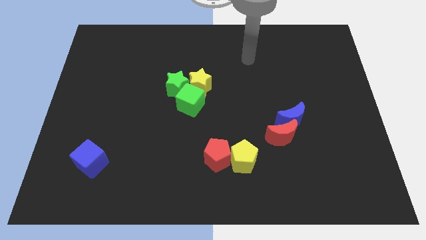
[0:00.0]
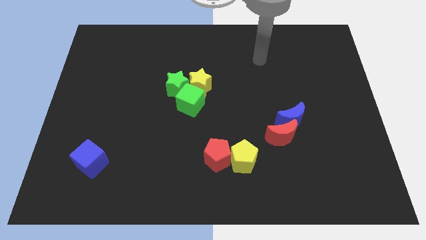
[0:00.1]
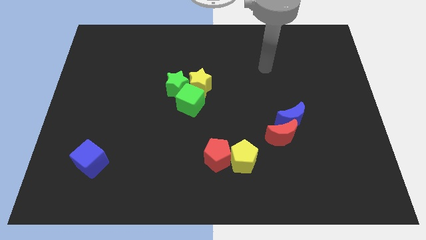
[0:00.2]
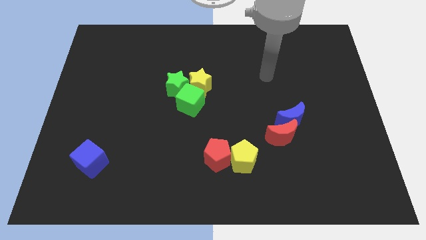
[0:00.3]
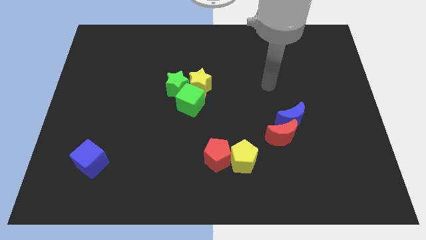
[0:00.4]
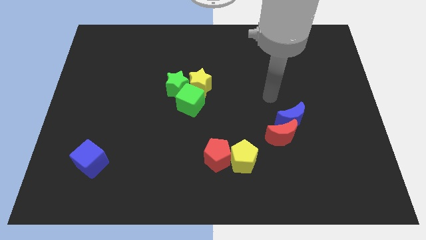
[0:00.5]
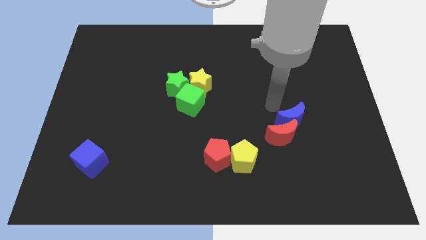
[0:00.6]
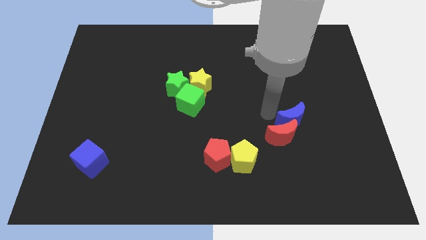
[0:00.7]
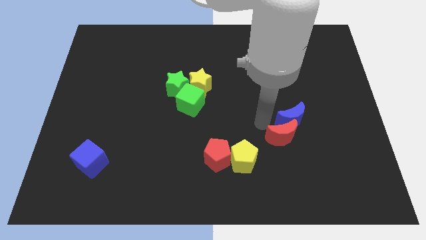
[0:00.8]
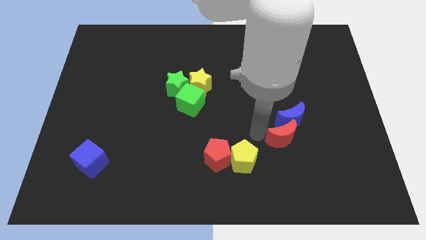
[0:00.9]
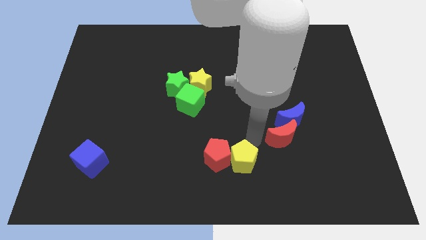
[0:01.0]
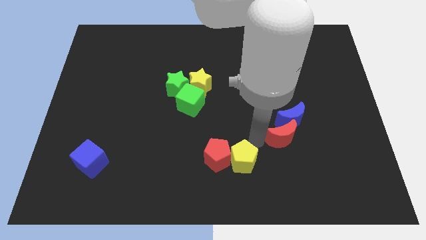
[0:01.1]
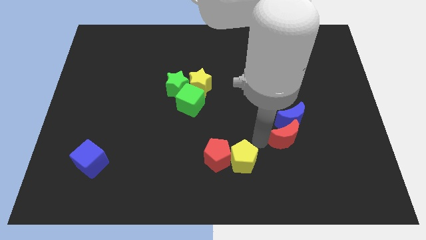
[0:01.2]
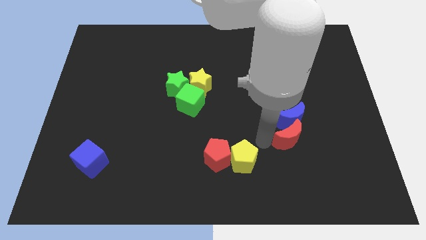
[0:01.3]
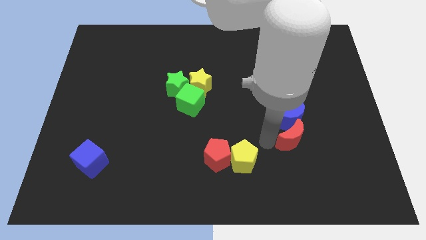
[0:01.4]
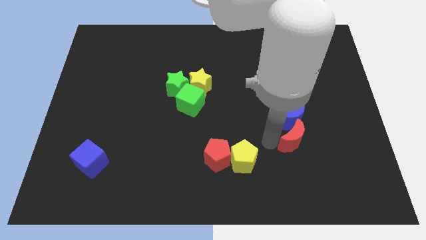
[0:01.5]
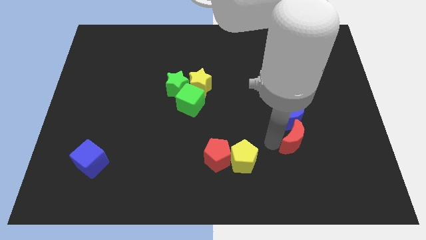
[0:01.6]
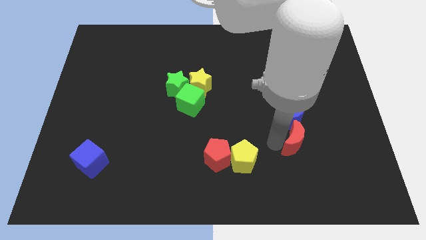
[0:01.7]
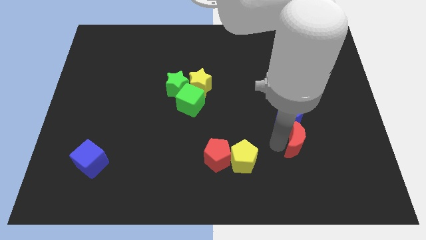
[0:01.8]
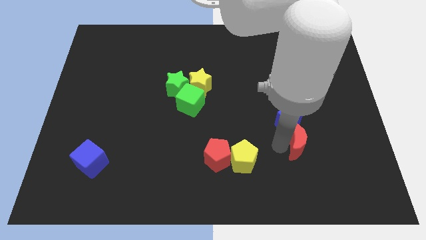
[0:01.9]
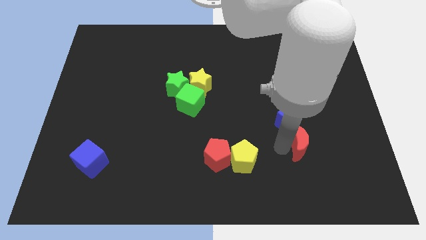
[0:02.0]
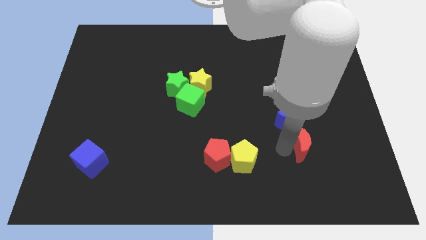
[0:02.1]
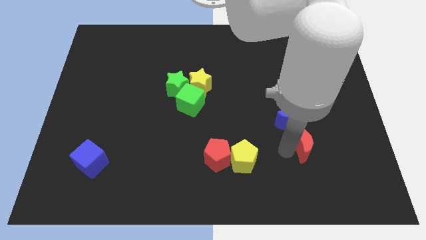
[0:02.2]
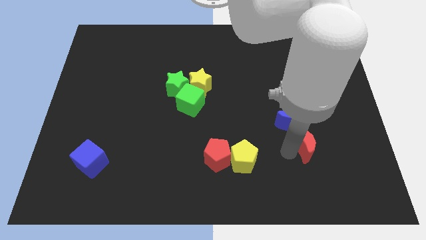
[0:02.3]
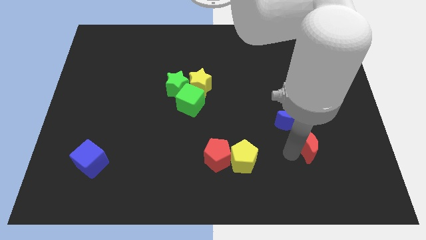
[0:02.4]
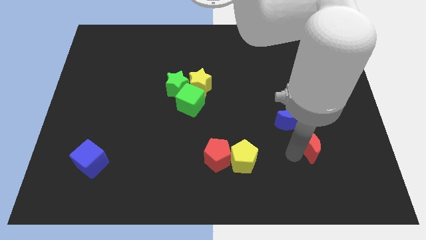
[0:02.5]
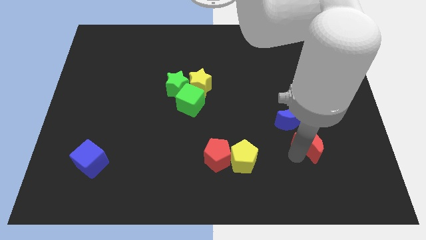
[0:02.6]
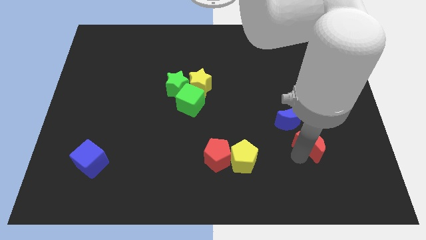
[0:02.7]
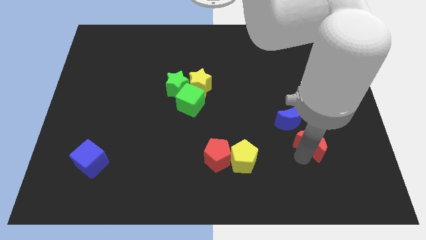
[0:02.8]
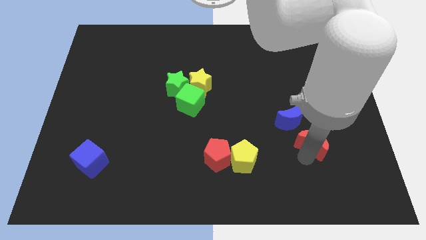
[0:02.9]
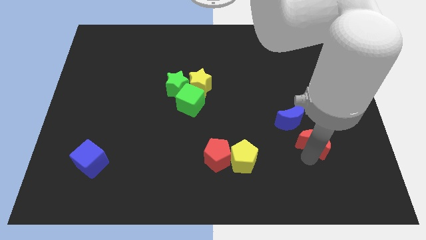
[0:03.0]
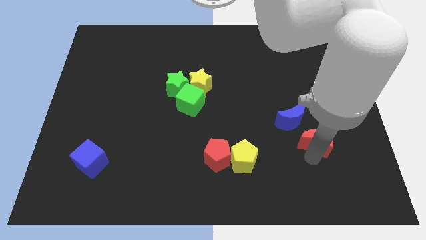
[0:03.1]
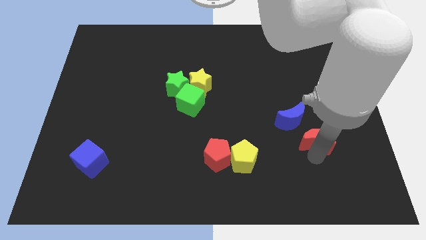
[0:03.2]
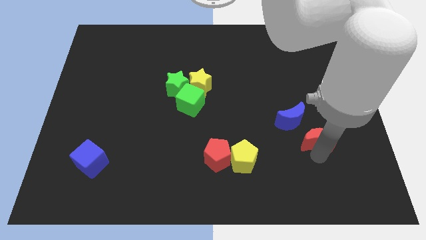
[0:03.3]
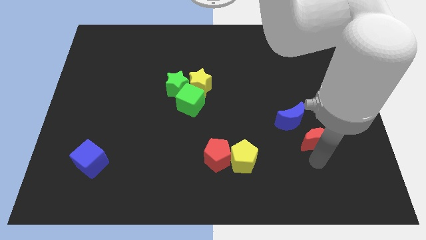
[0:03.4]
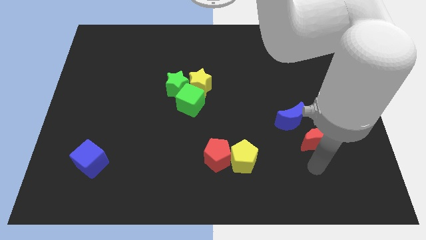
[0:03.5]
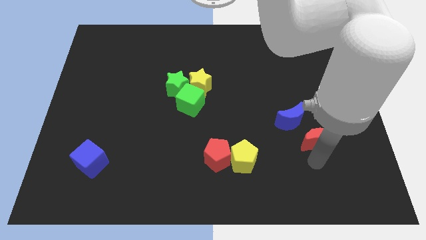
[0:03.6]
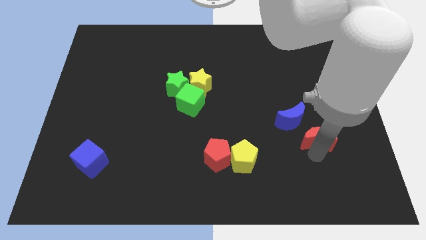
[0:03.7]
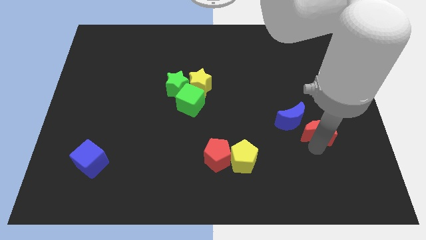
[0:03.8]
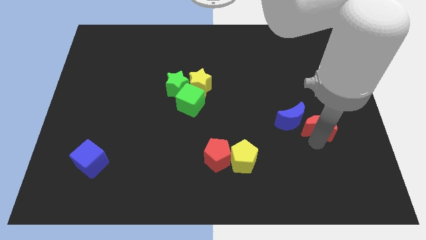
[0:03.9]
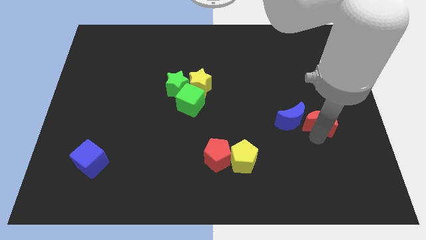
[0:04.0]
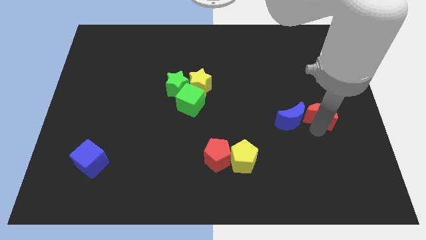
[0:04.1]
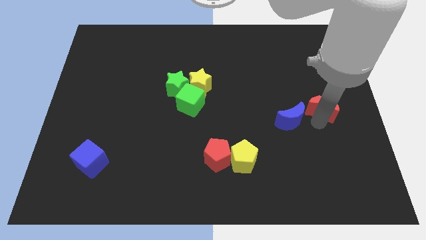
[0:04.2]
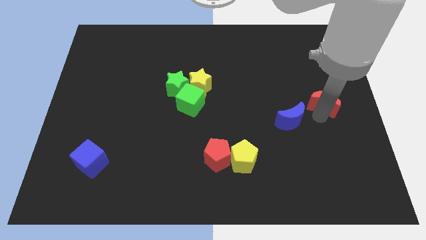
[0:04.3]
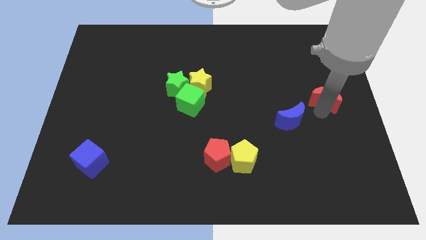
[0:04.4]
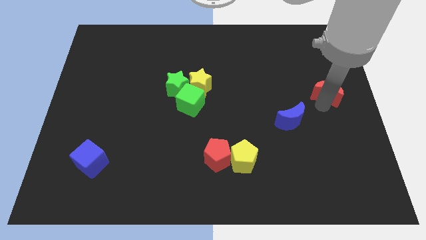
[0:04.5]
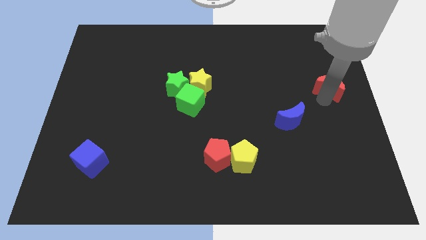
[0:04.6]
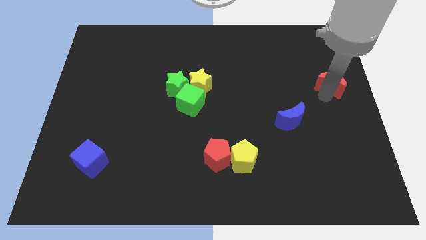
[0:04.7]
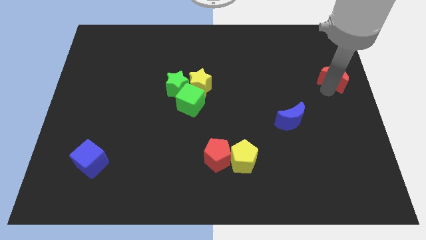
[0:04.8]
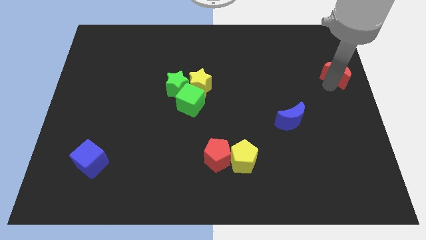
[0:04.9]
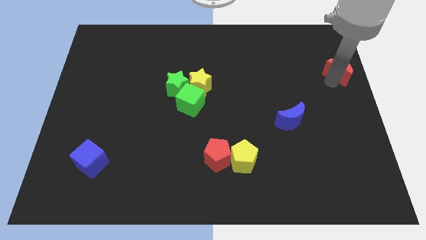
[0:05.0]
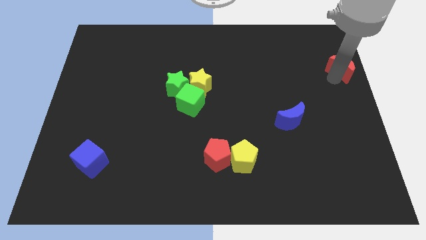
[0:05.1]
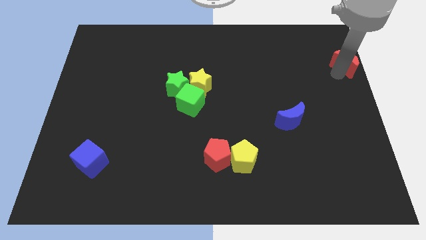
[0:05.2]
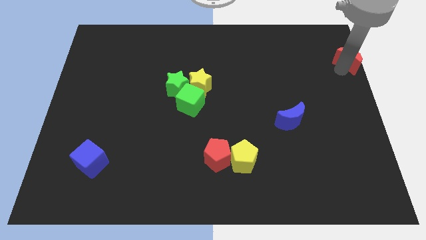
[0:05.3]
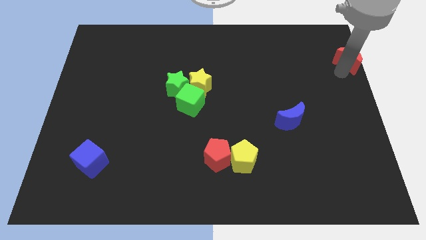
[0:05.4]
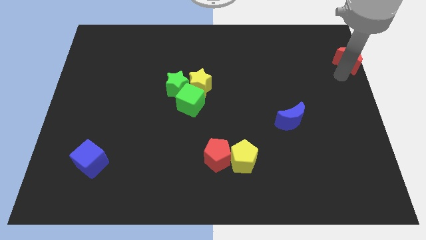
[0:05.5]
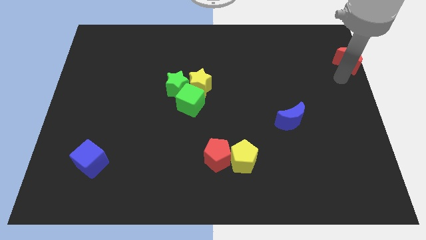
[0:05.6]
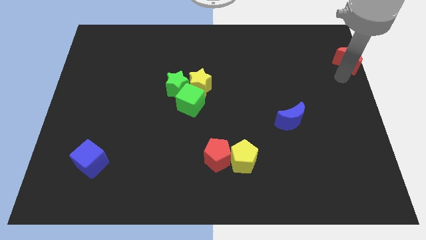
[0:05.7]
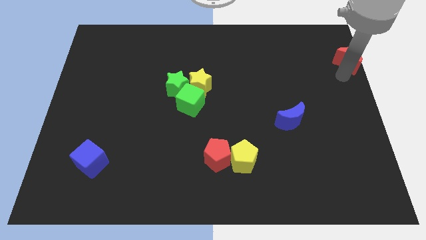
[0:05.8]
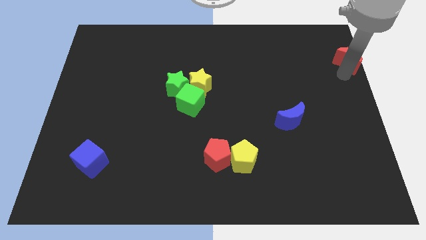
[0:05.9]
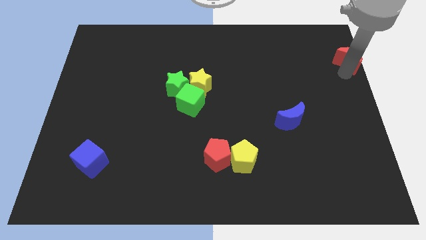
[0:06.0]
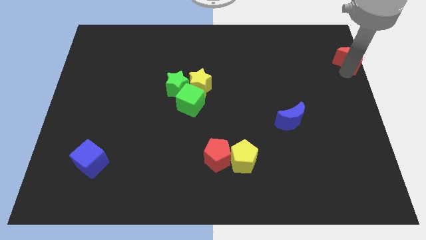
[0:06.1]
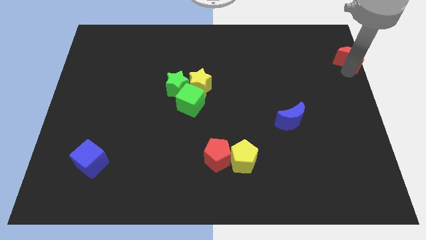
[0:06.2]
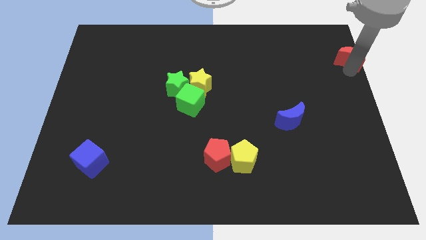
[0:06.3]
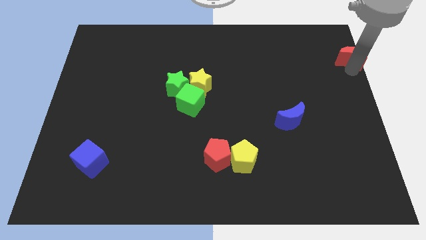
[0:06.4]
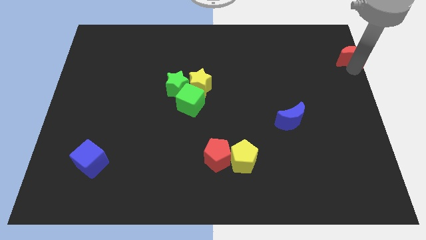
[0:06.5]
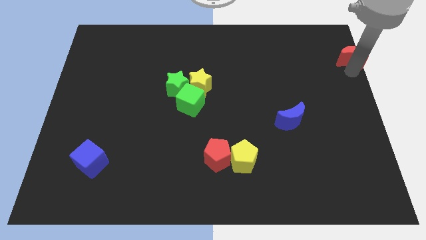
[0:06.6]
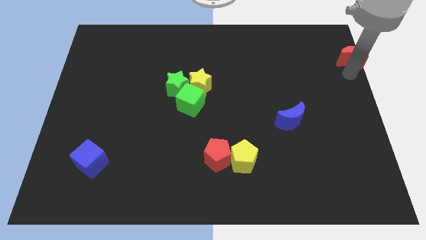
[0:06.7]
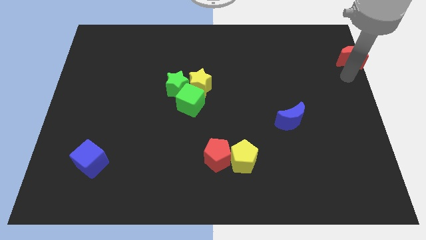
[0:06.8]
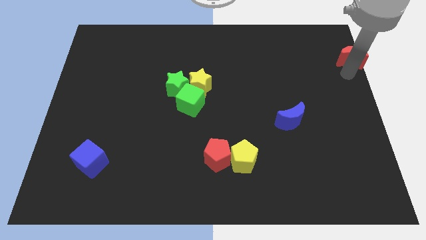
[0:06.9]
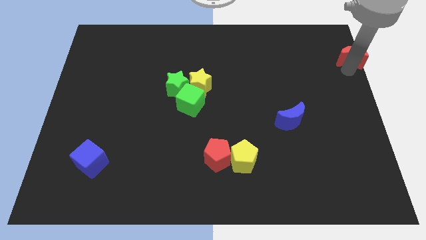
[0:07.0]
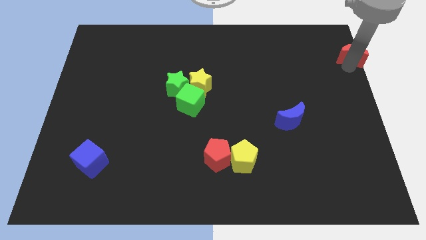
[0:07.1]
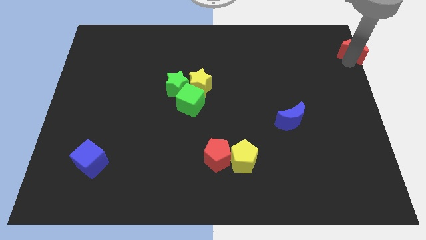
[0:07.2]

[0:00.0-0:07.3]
move the red moon to the top right corner
